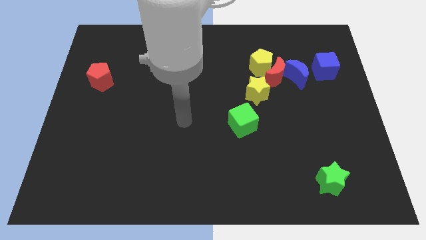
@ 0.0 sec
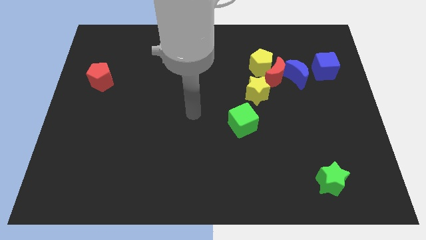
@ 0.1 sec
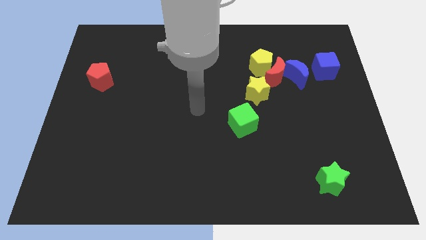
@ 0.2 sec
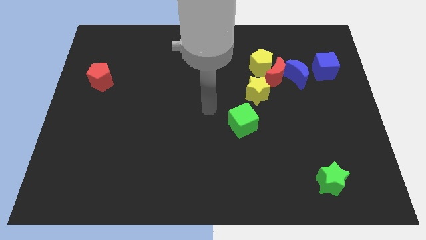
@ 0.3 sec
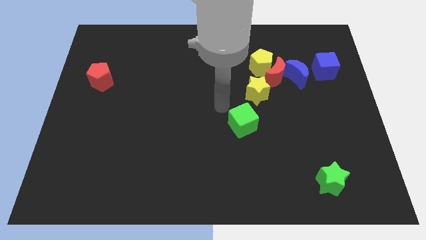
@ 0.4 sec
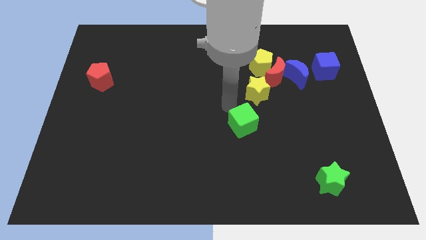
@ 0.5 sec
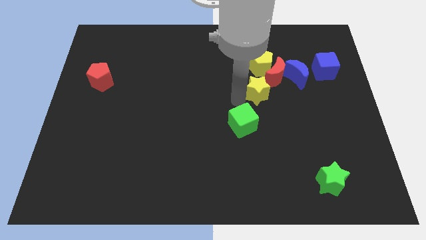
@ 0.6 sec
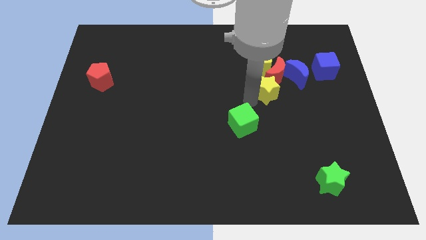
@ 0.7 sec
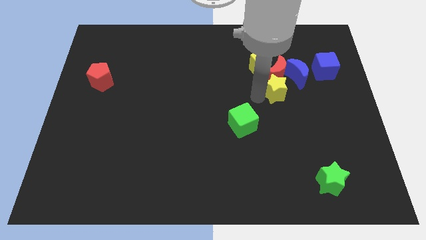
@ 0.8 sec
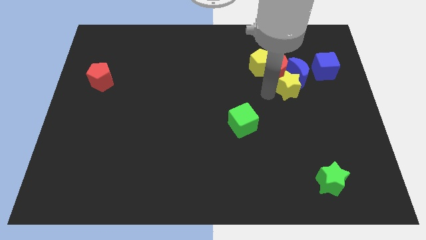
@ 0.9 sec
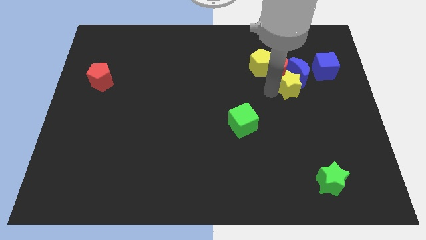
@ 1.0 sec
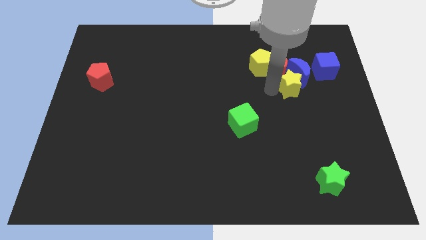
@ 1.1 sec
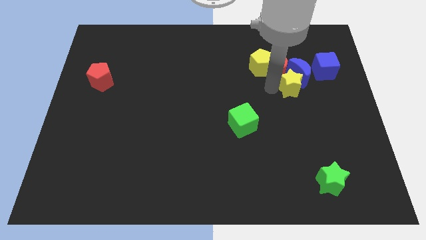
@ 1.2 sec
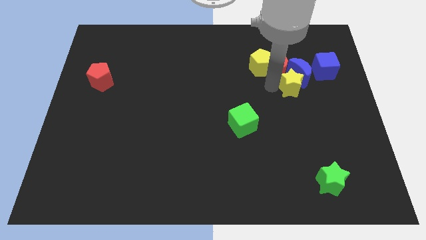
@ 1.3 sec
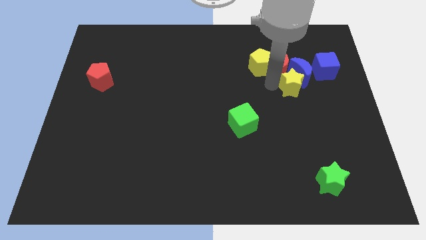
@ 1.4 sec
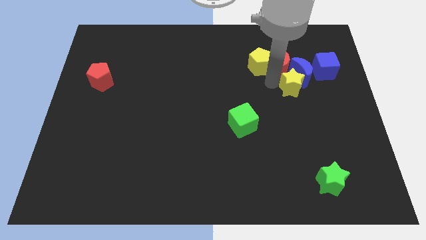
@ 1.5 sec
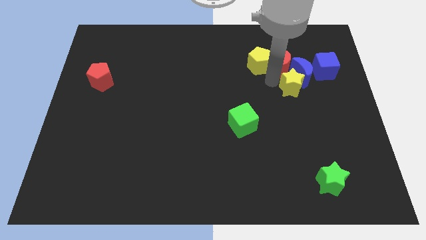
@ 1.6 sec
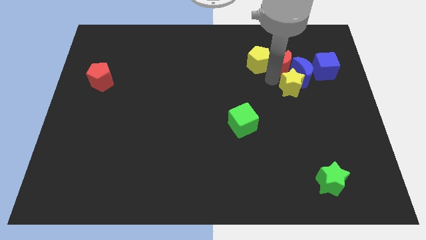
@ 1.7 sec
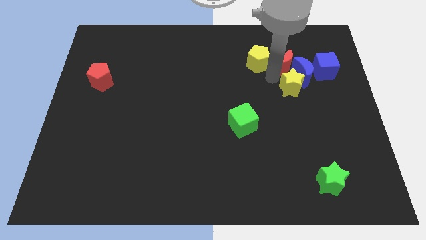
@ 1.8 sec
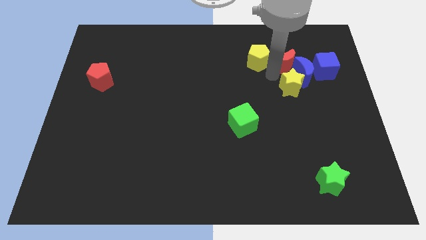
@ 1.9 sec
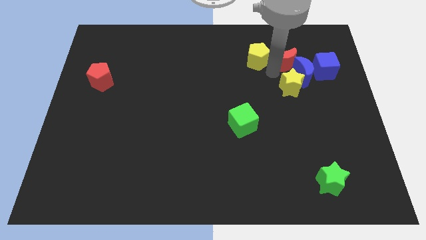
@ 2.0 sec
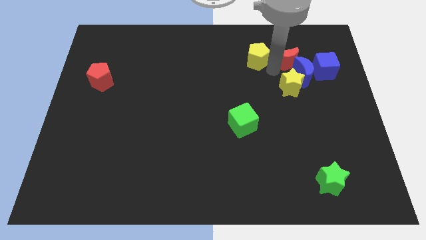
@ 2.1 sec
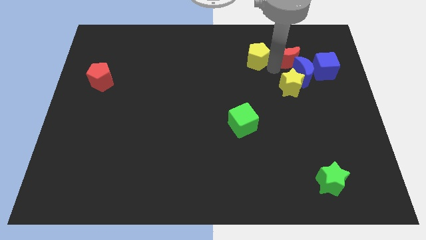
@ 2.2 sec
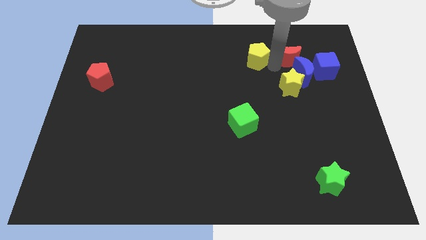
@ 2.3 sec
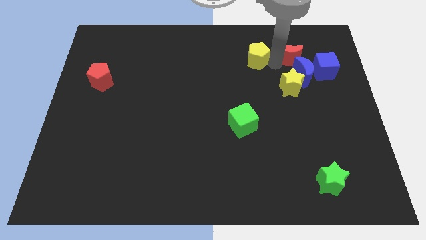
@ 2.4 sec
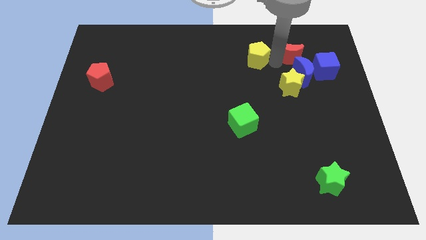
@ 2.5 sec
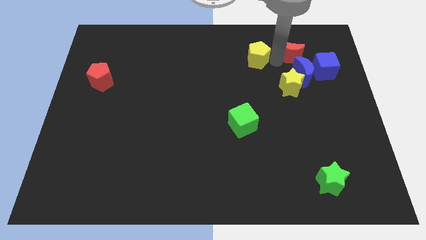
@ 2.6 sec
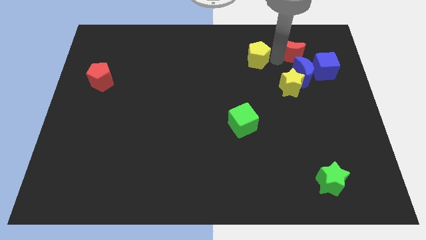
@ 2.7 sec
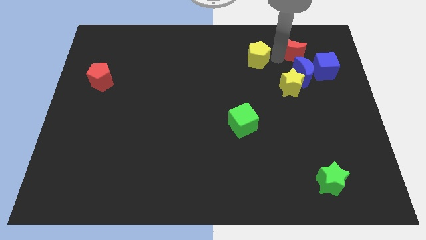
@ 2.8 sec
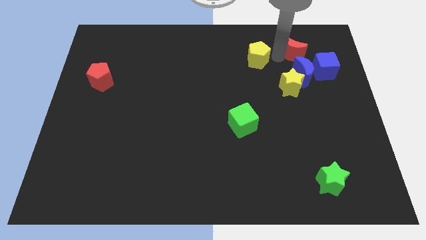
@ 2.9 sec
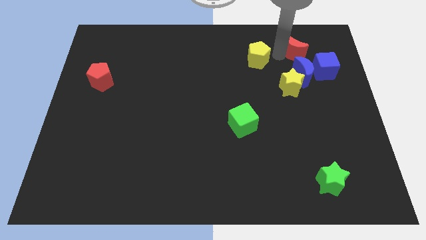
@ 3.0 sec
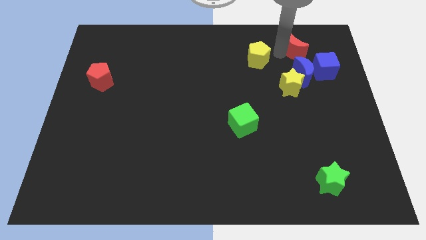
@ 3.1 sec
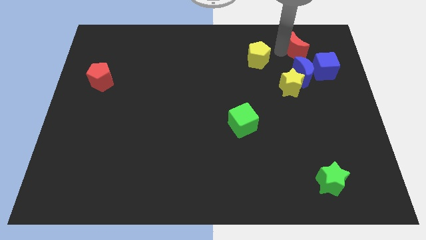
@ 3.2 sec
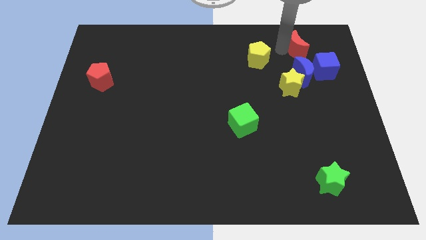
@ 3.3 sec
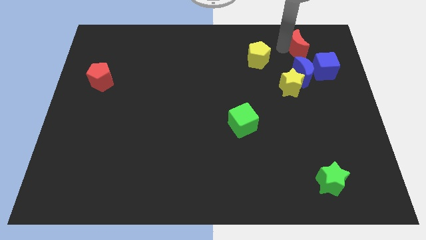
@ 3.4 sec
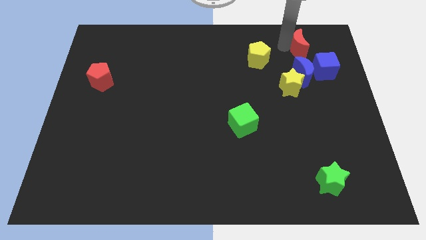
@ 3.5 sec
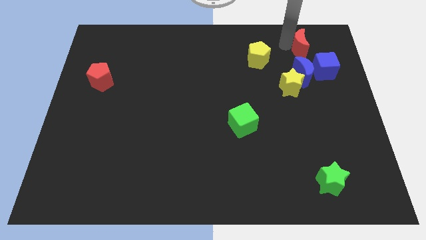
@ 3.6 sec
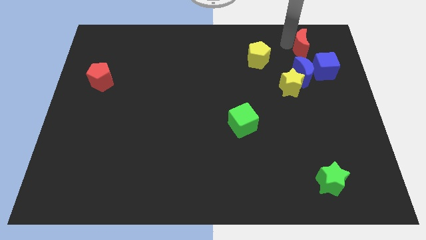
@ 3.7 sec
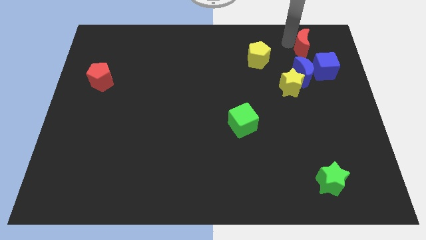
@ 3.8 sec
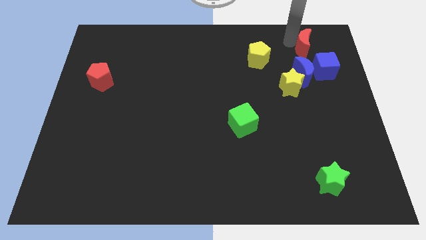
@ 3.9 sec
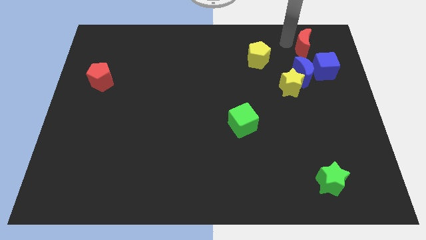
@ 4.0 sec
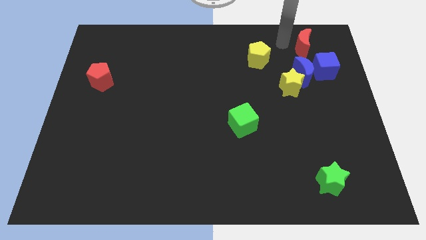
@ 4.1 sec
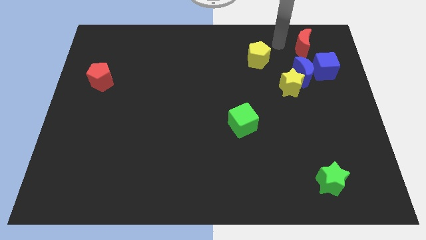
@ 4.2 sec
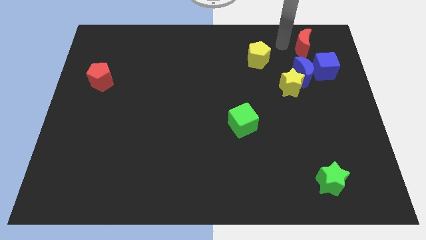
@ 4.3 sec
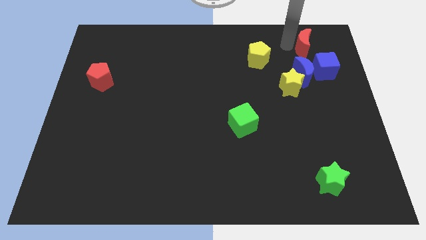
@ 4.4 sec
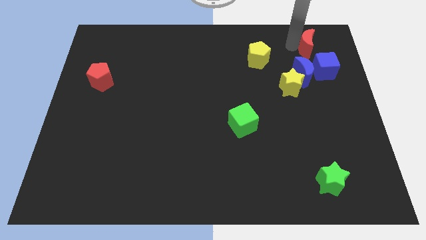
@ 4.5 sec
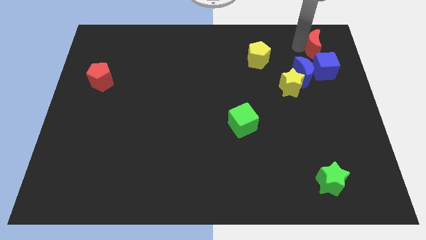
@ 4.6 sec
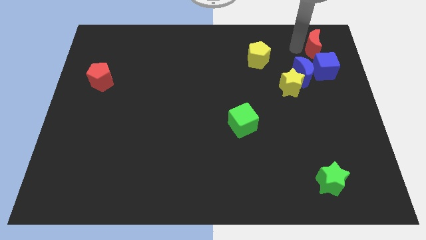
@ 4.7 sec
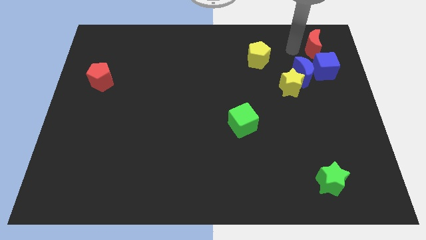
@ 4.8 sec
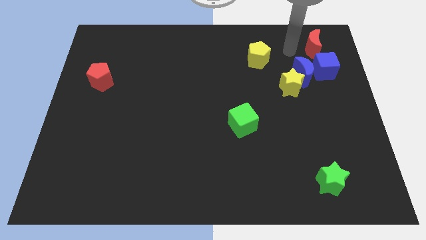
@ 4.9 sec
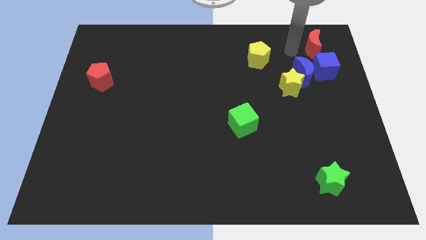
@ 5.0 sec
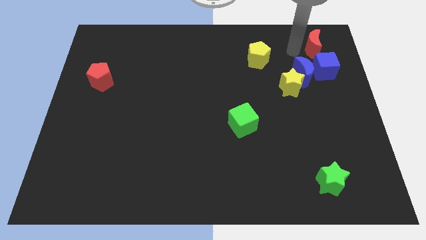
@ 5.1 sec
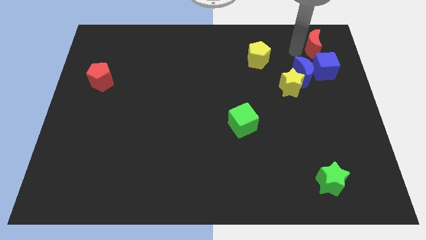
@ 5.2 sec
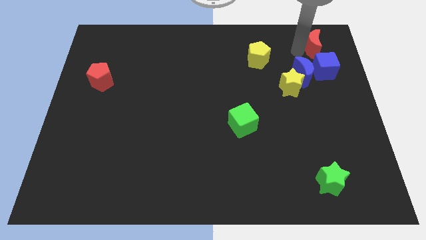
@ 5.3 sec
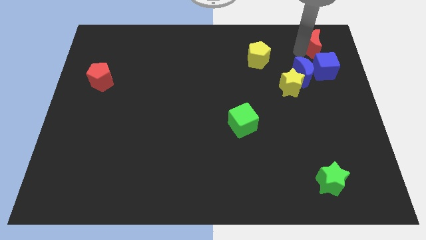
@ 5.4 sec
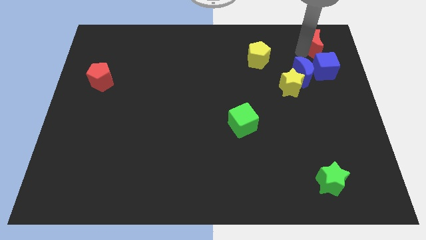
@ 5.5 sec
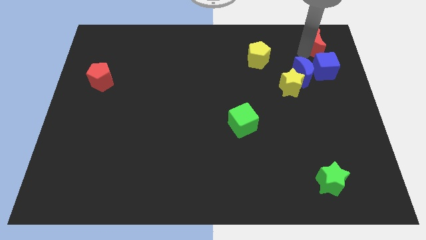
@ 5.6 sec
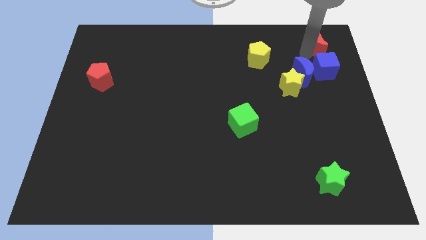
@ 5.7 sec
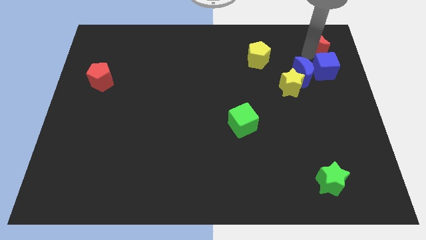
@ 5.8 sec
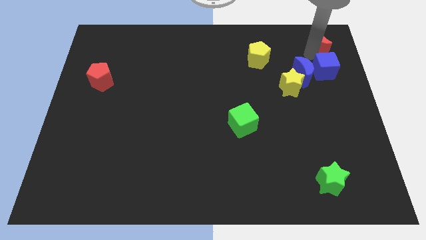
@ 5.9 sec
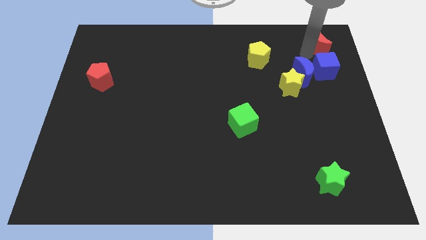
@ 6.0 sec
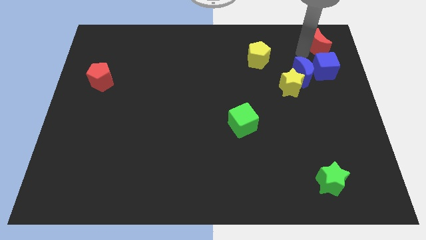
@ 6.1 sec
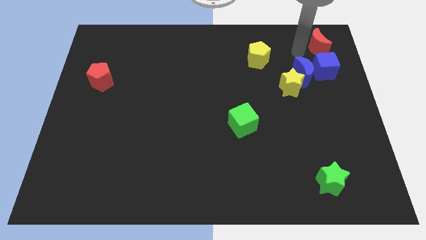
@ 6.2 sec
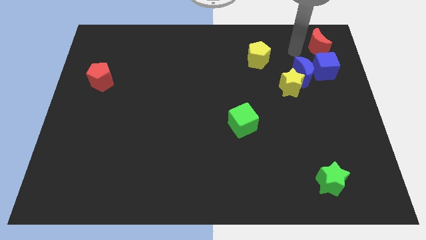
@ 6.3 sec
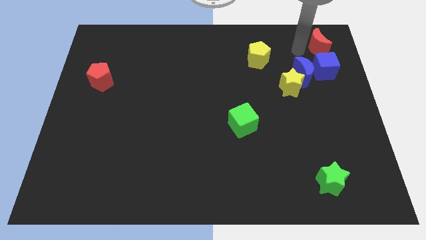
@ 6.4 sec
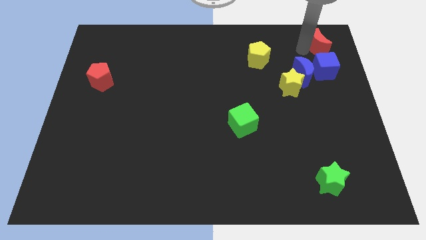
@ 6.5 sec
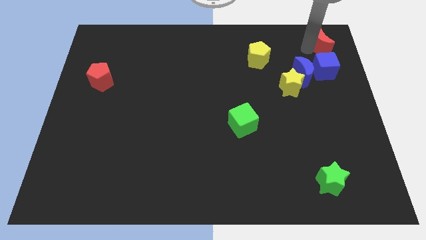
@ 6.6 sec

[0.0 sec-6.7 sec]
slide the red moon to the upper right corner
